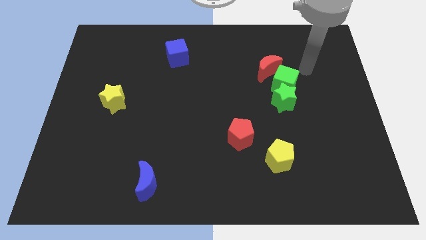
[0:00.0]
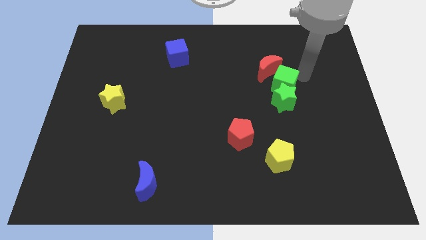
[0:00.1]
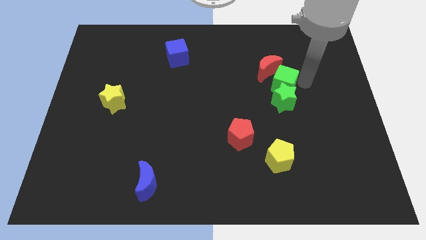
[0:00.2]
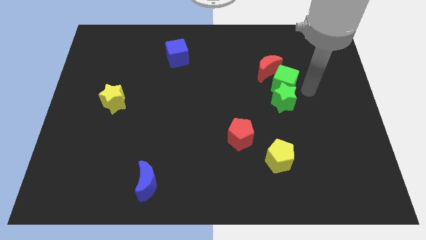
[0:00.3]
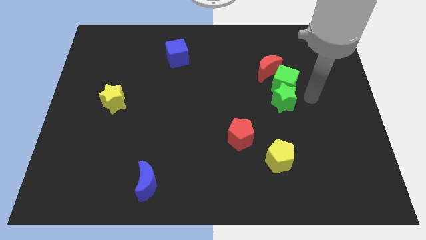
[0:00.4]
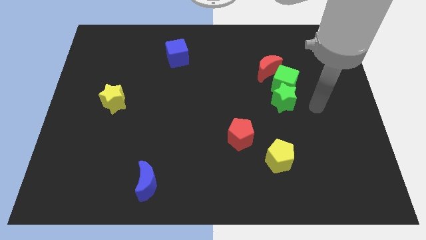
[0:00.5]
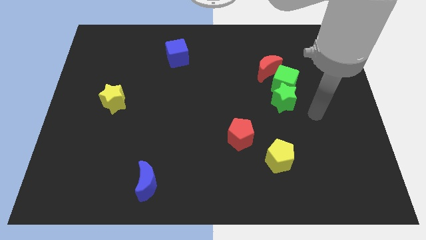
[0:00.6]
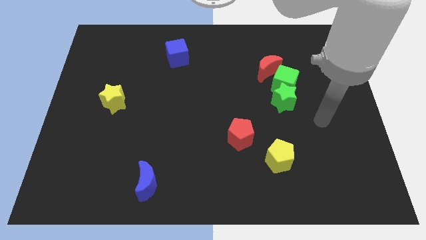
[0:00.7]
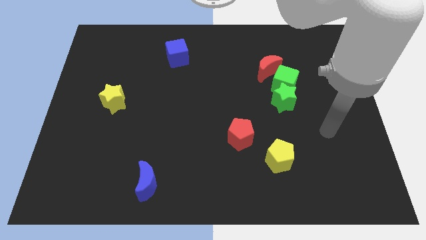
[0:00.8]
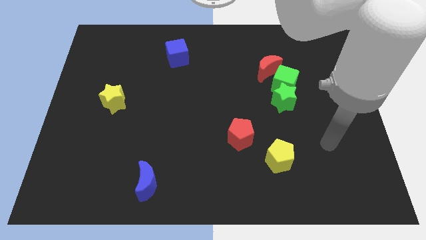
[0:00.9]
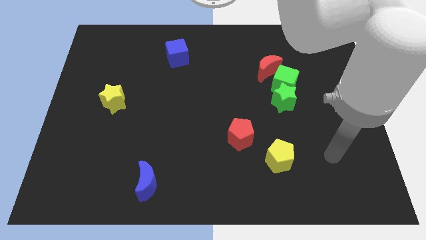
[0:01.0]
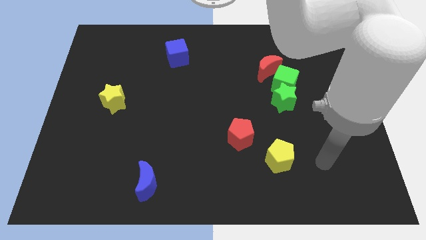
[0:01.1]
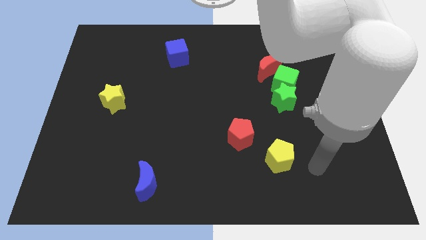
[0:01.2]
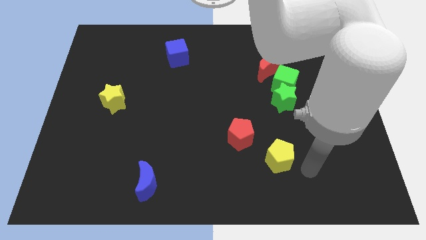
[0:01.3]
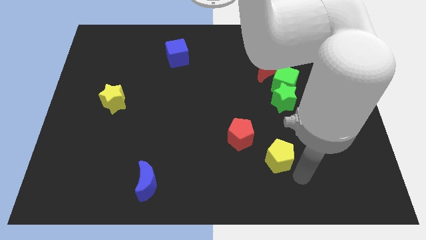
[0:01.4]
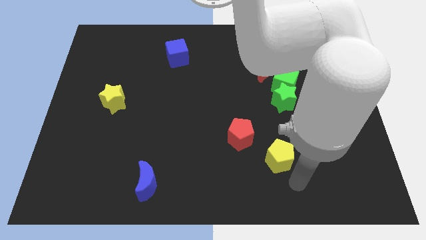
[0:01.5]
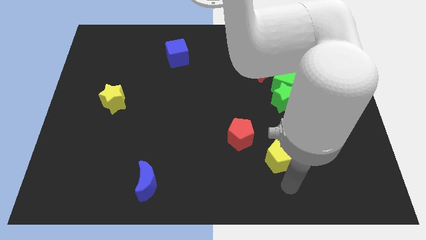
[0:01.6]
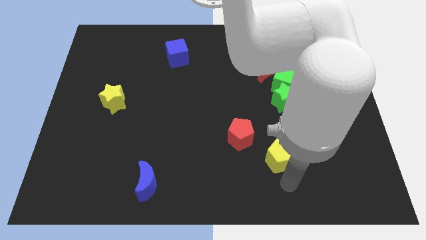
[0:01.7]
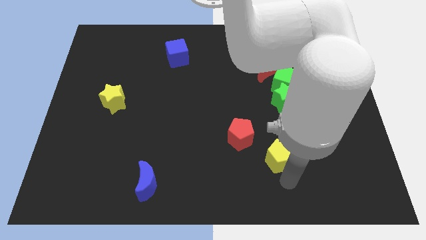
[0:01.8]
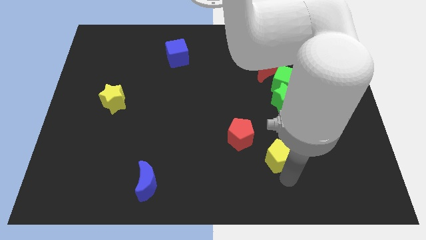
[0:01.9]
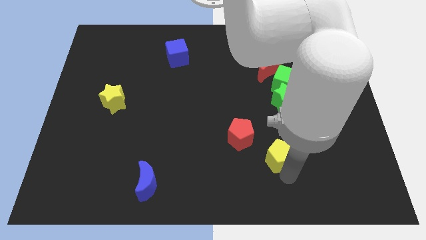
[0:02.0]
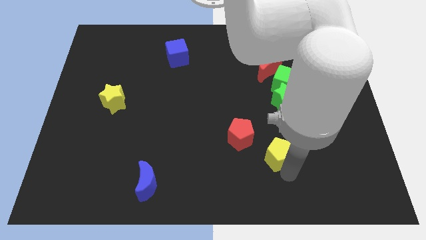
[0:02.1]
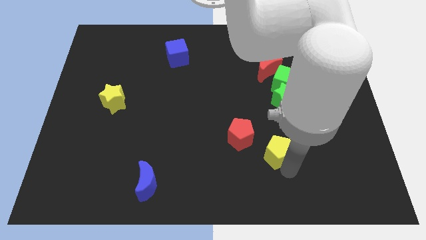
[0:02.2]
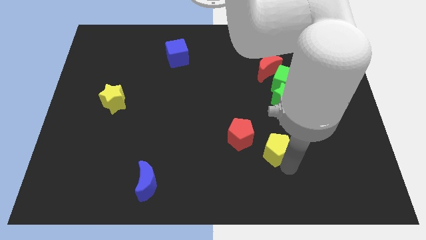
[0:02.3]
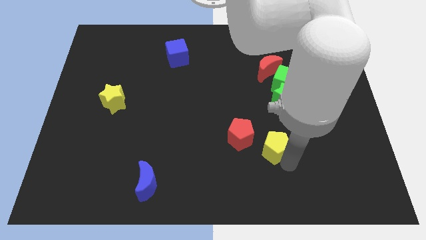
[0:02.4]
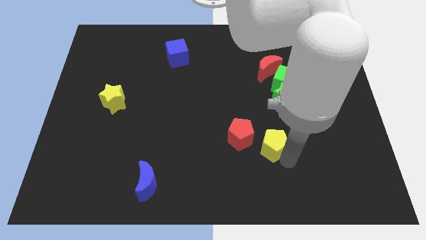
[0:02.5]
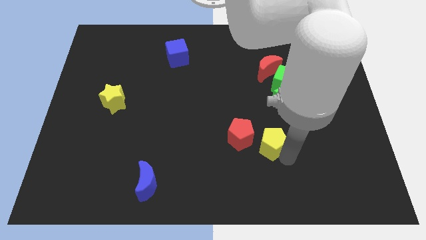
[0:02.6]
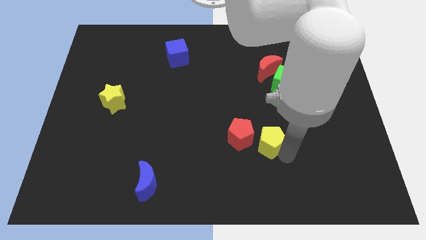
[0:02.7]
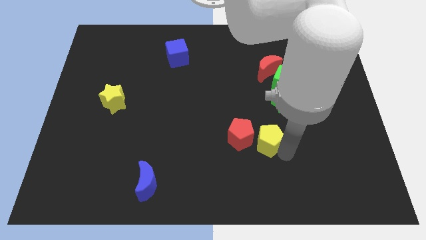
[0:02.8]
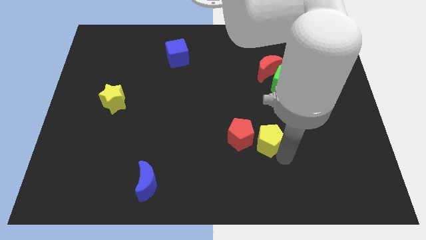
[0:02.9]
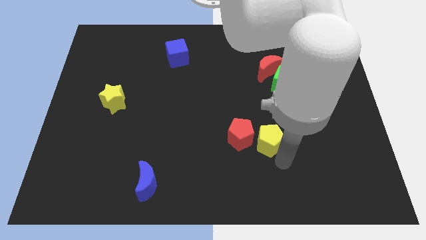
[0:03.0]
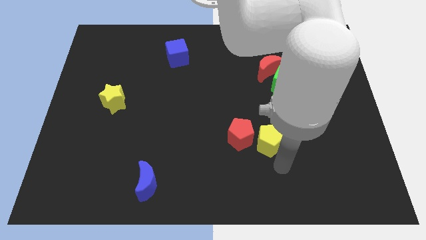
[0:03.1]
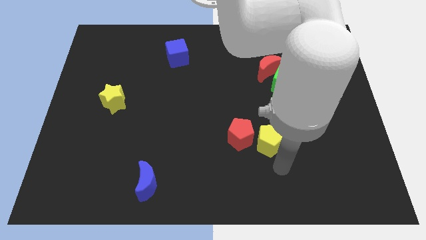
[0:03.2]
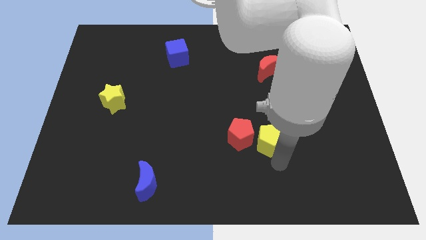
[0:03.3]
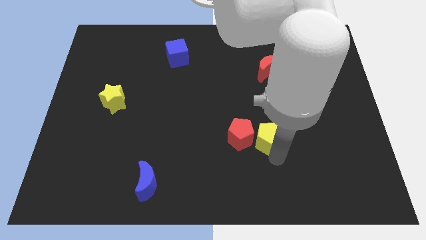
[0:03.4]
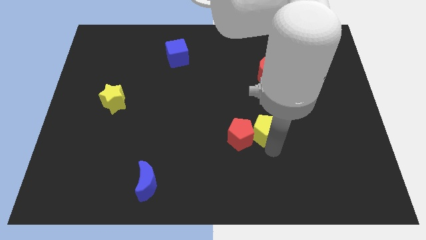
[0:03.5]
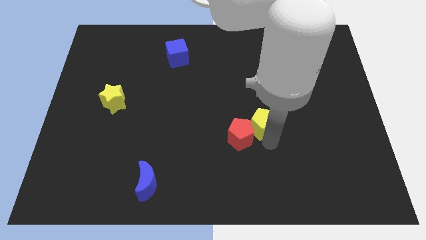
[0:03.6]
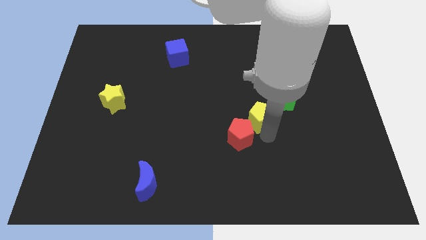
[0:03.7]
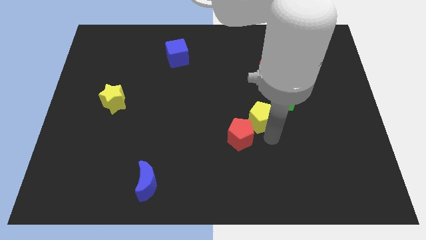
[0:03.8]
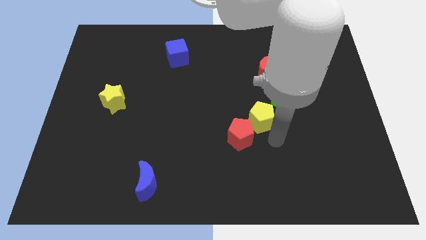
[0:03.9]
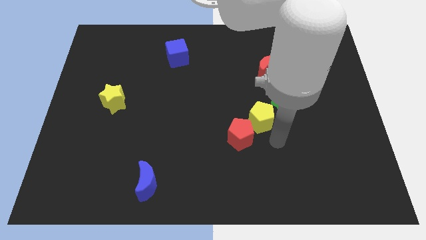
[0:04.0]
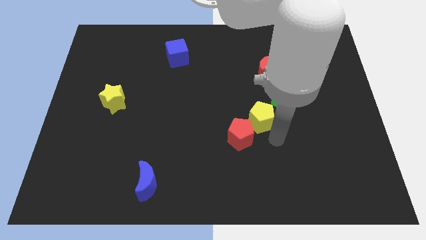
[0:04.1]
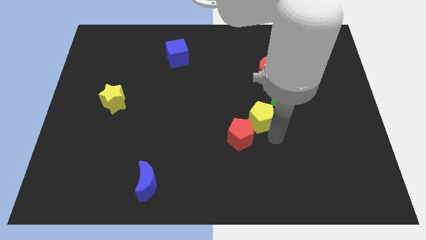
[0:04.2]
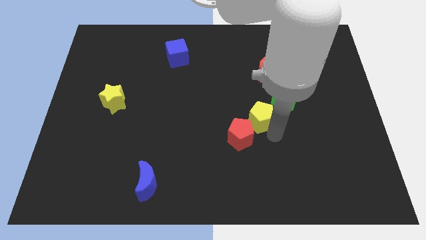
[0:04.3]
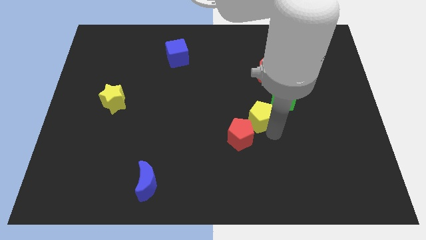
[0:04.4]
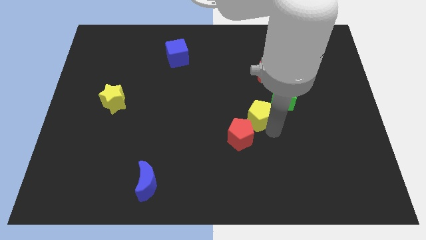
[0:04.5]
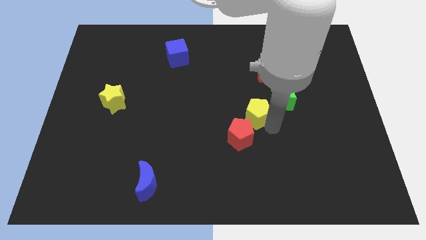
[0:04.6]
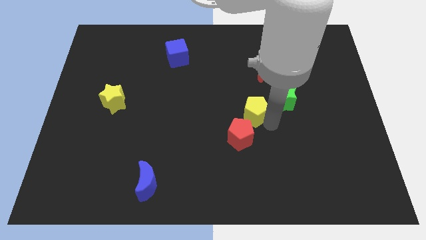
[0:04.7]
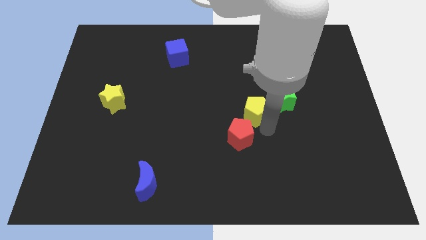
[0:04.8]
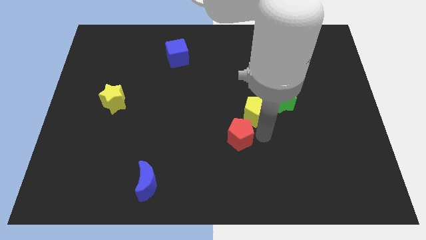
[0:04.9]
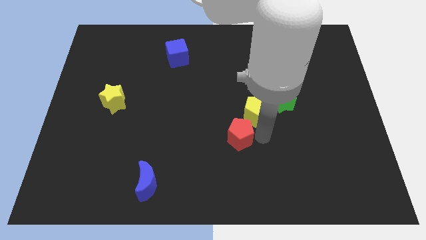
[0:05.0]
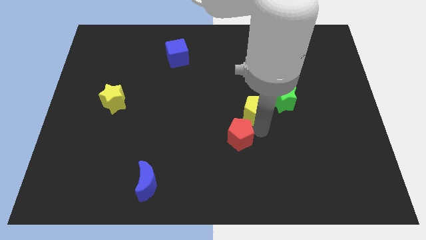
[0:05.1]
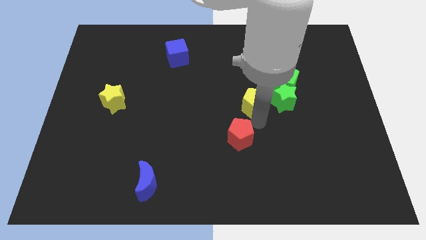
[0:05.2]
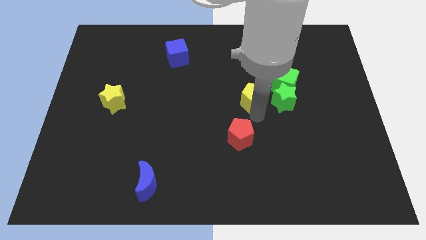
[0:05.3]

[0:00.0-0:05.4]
move the yellow pentagon diagonally down and to the left of the red moon

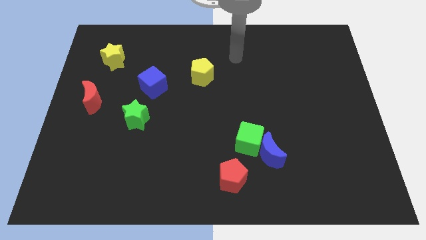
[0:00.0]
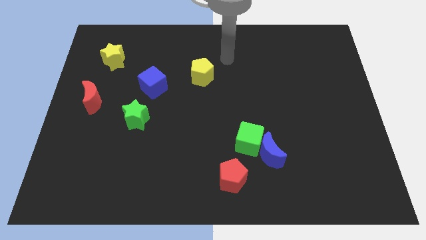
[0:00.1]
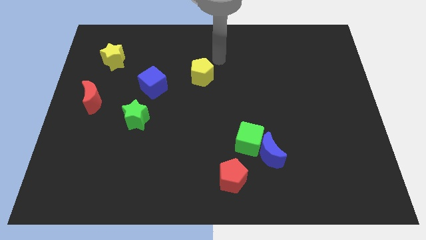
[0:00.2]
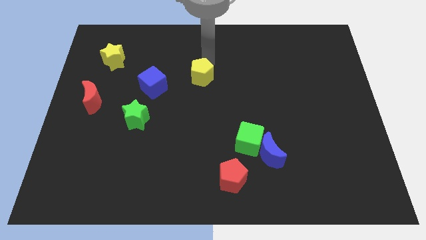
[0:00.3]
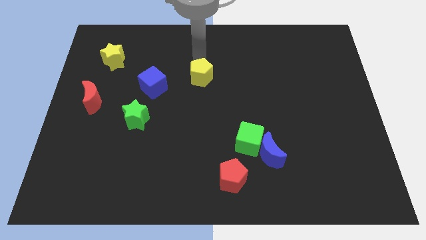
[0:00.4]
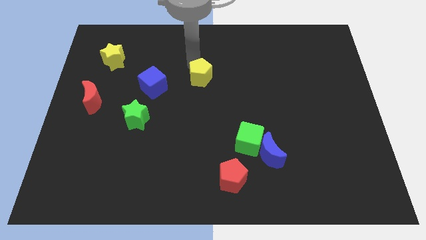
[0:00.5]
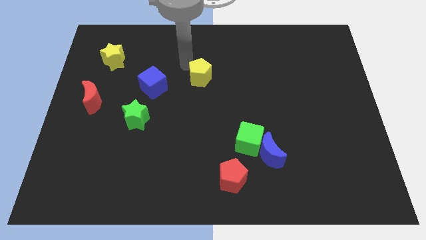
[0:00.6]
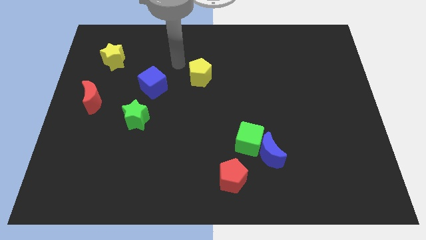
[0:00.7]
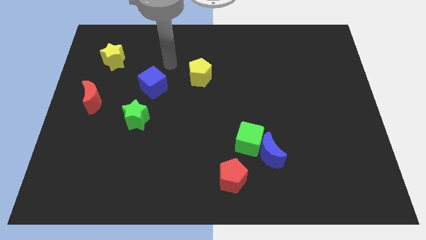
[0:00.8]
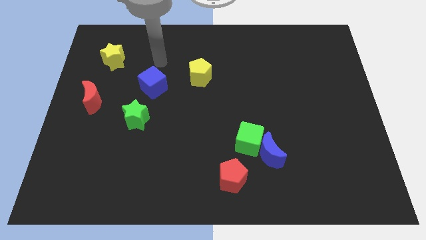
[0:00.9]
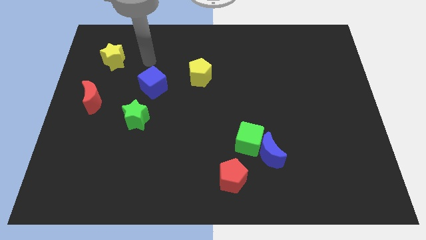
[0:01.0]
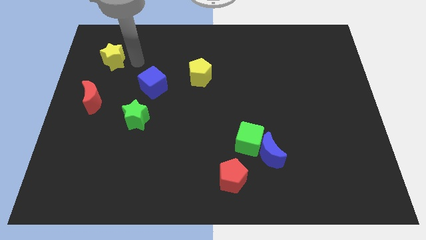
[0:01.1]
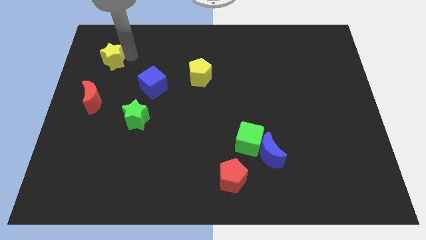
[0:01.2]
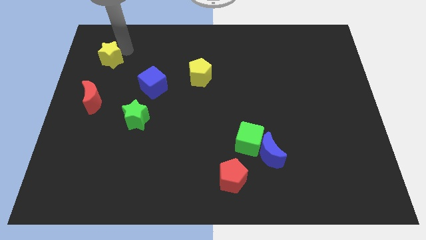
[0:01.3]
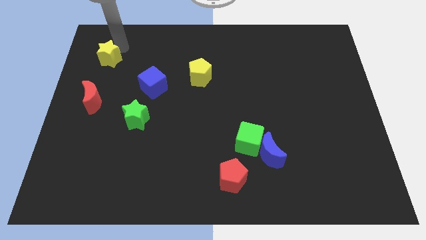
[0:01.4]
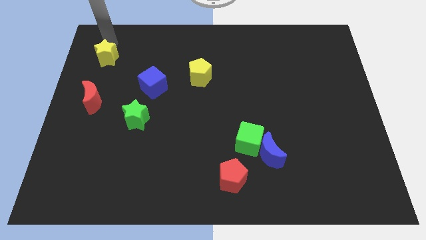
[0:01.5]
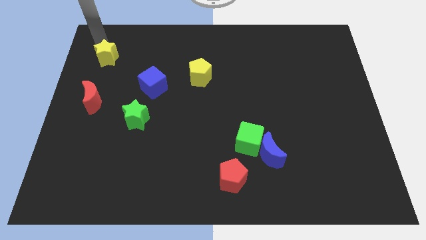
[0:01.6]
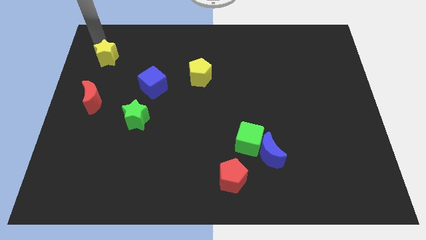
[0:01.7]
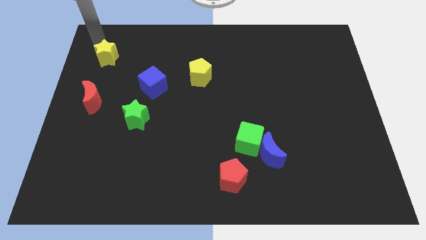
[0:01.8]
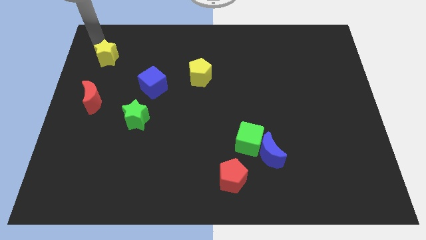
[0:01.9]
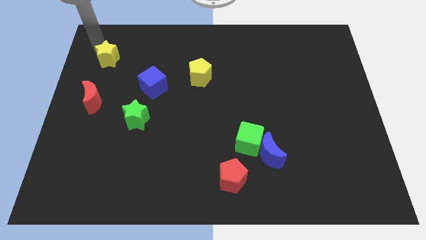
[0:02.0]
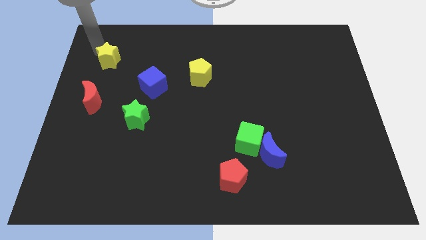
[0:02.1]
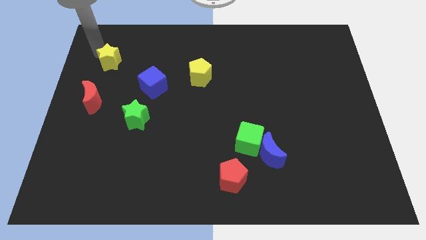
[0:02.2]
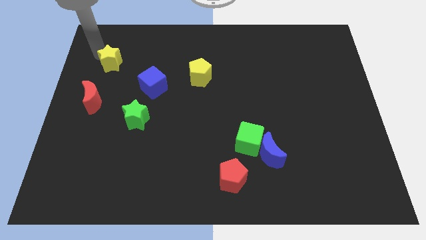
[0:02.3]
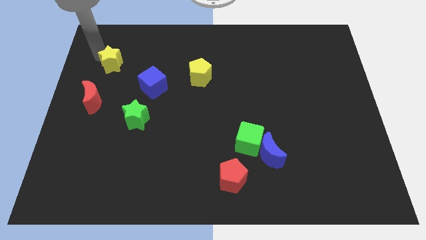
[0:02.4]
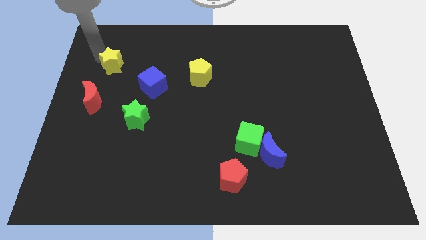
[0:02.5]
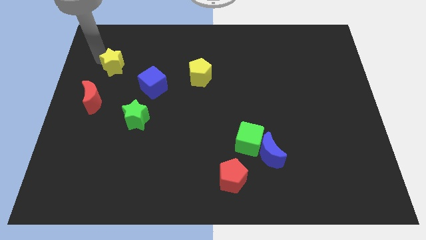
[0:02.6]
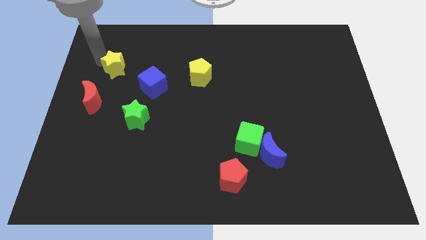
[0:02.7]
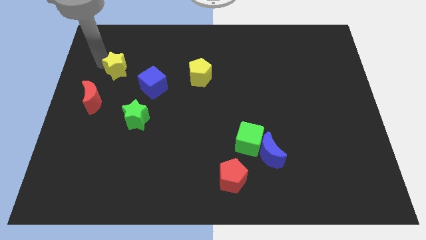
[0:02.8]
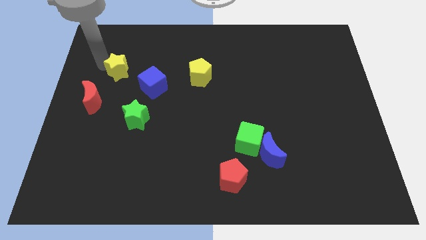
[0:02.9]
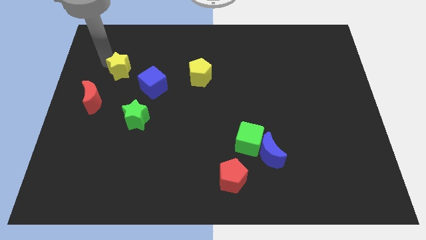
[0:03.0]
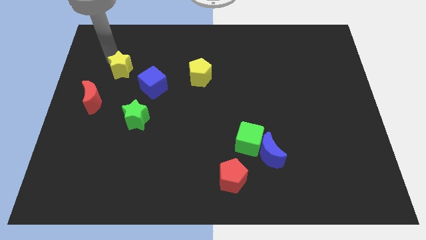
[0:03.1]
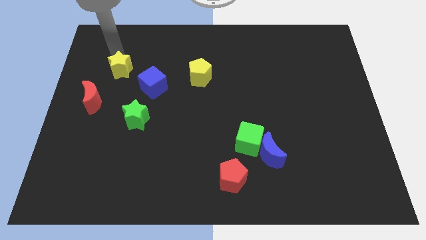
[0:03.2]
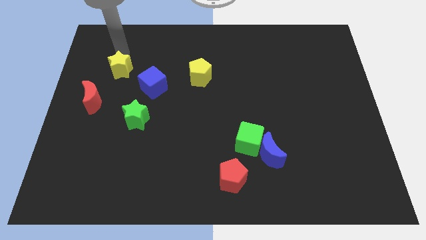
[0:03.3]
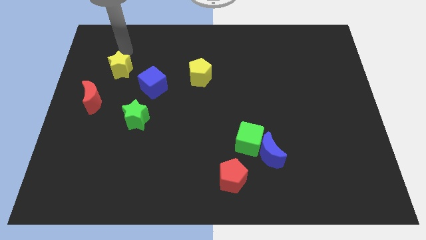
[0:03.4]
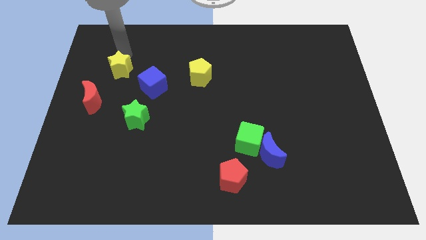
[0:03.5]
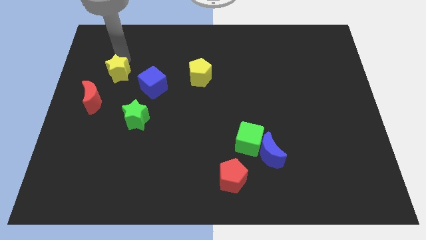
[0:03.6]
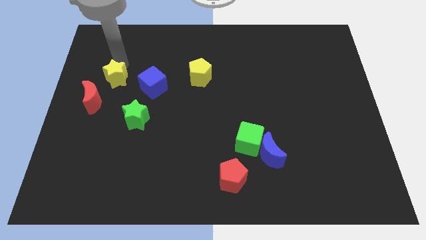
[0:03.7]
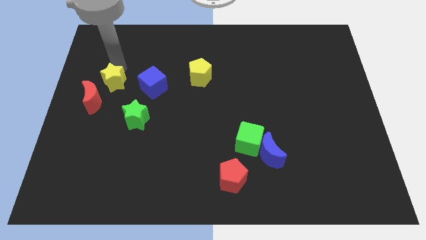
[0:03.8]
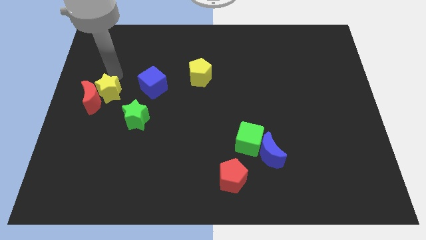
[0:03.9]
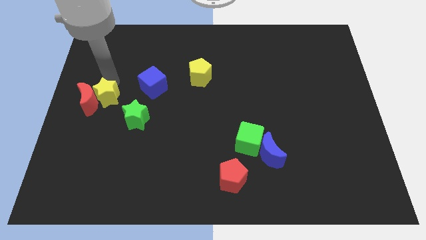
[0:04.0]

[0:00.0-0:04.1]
move the yellow star diagonally down and to the right of the red moon
